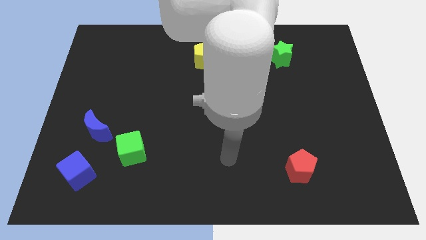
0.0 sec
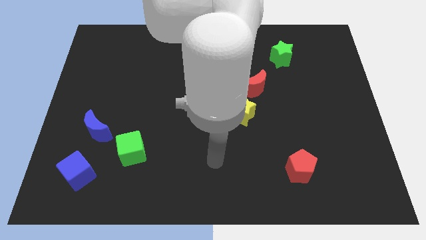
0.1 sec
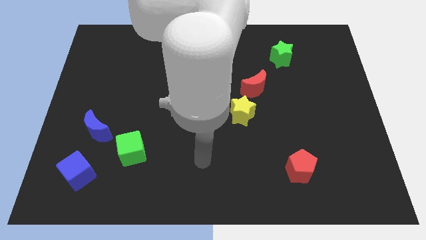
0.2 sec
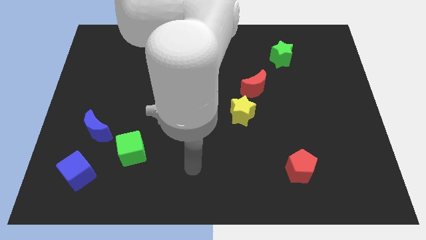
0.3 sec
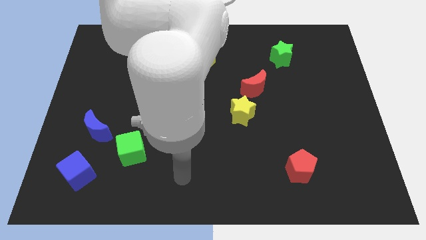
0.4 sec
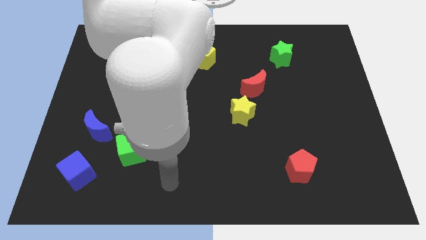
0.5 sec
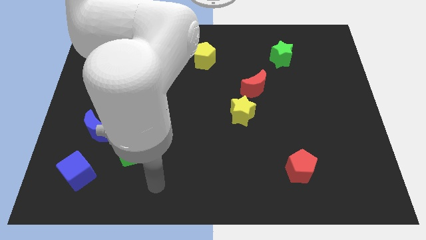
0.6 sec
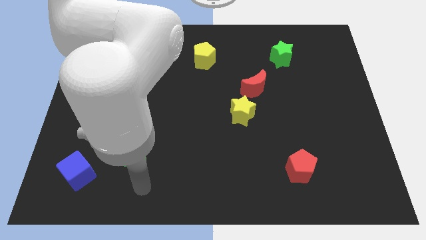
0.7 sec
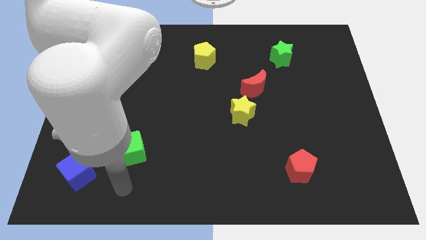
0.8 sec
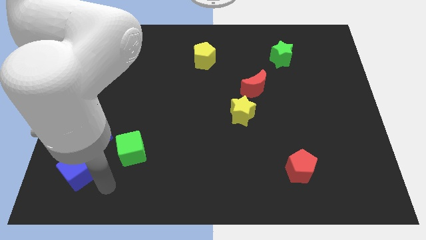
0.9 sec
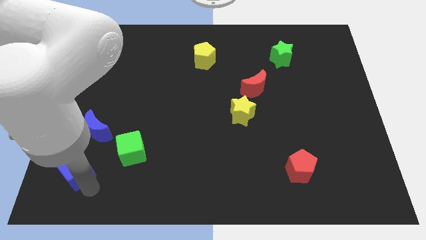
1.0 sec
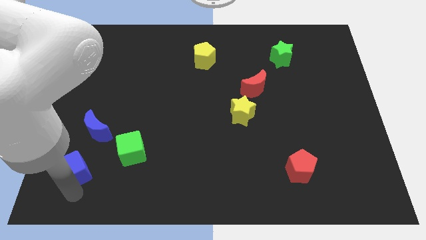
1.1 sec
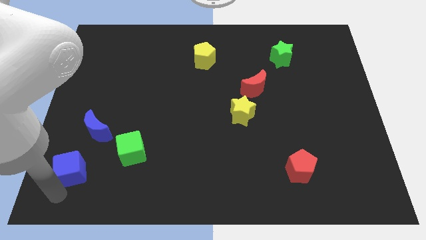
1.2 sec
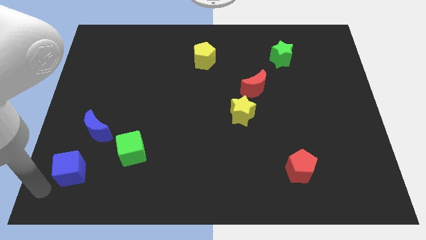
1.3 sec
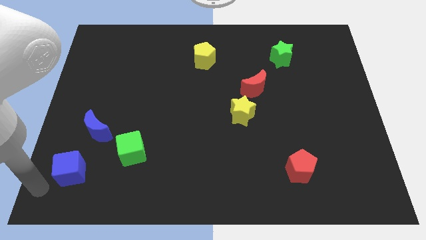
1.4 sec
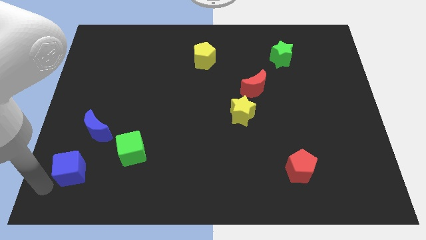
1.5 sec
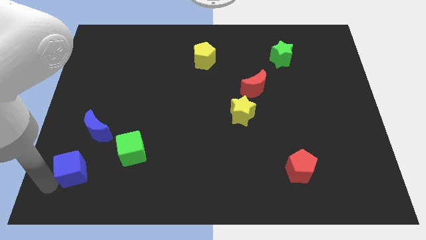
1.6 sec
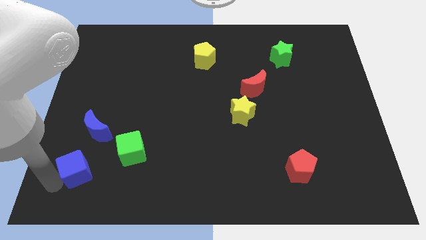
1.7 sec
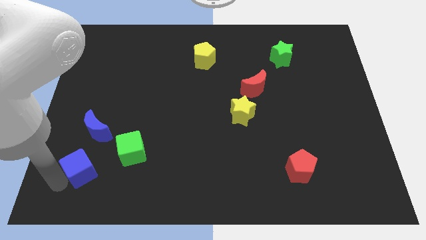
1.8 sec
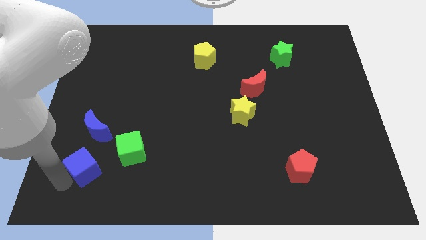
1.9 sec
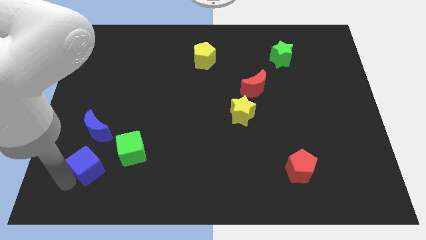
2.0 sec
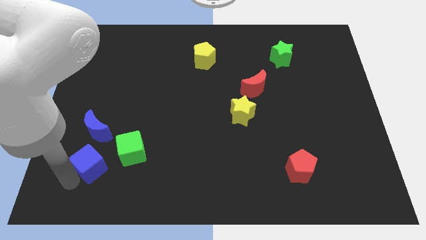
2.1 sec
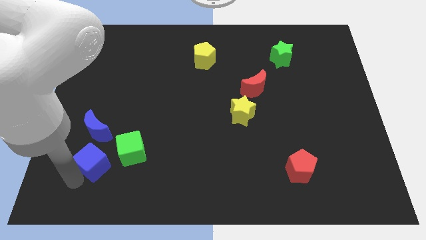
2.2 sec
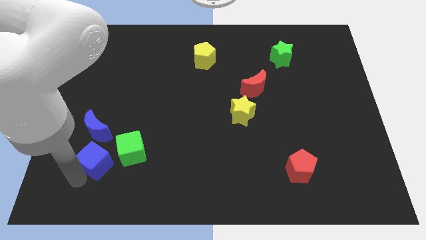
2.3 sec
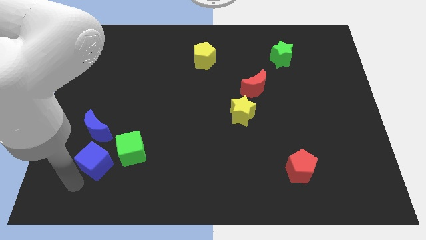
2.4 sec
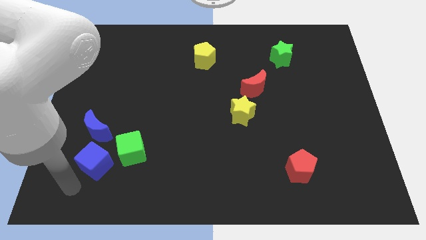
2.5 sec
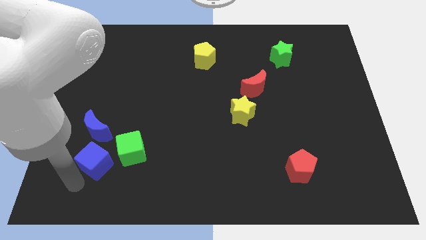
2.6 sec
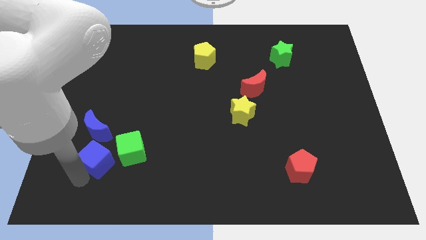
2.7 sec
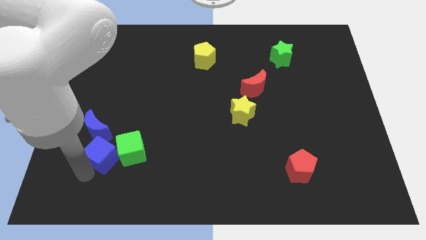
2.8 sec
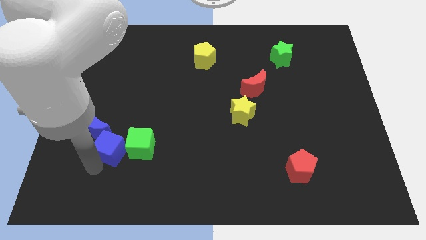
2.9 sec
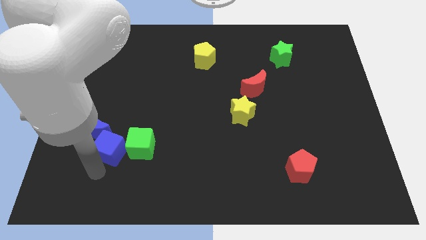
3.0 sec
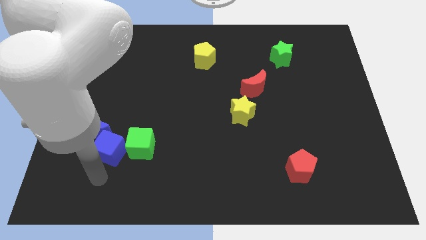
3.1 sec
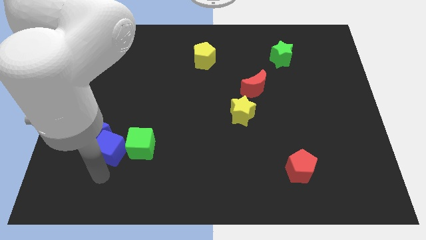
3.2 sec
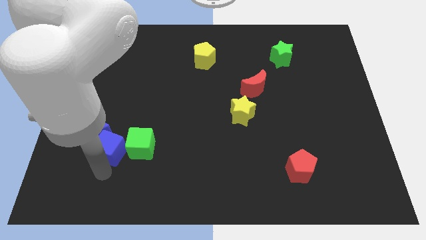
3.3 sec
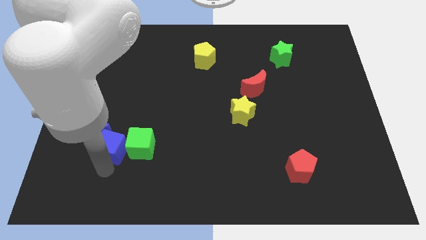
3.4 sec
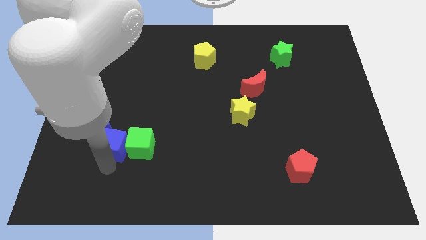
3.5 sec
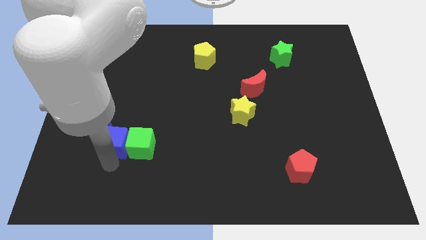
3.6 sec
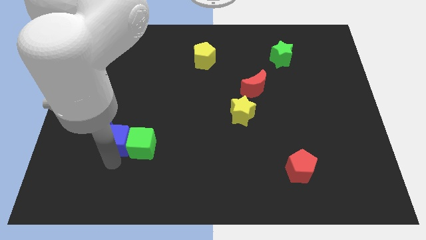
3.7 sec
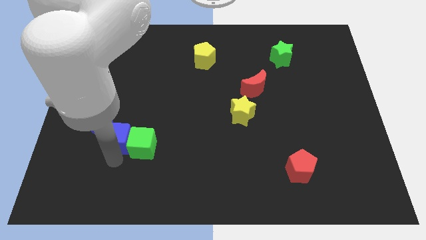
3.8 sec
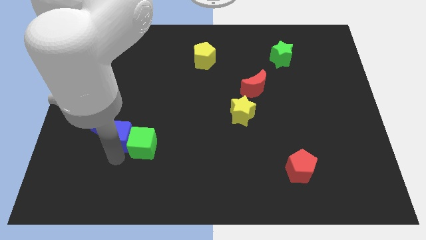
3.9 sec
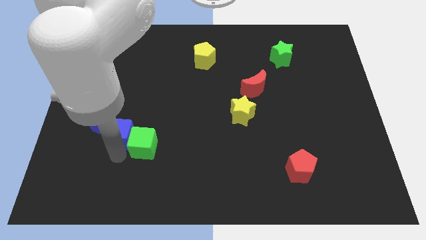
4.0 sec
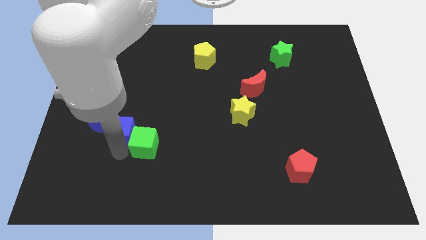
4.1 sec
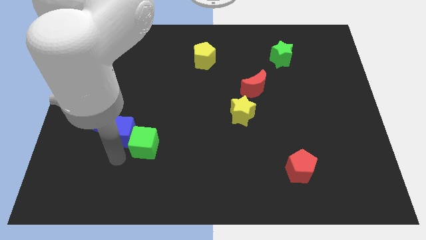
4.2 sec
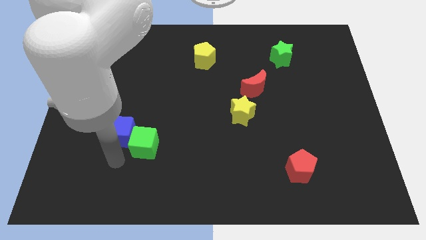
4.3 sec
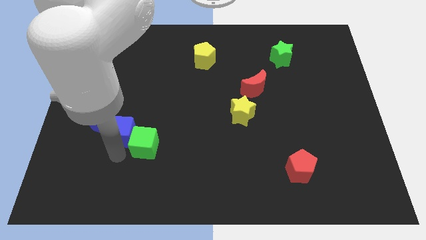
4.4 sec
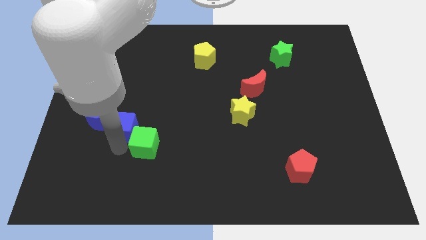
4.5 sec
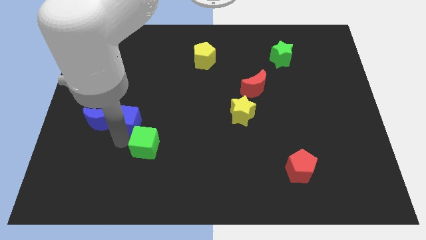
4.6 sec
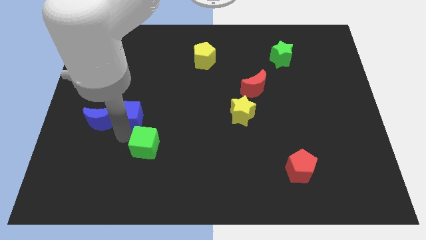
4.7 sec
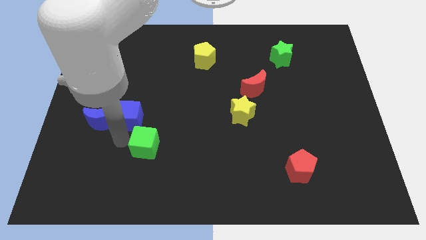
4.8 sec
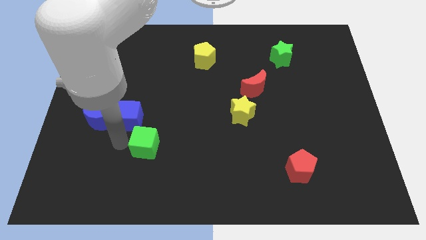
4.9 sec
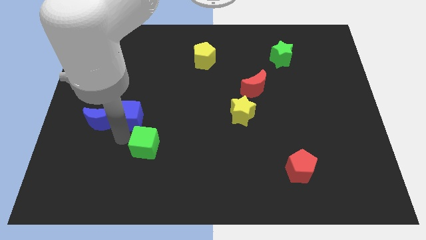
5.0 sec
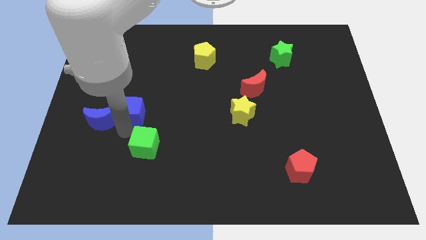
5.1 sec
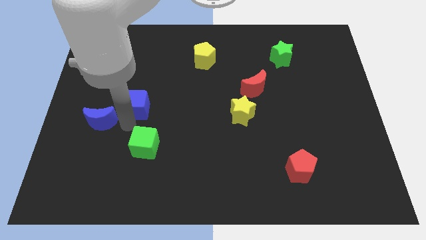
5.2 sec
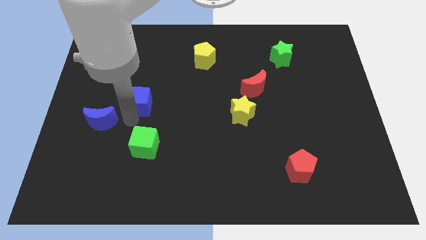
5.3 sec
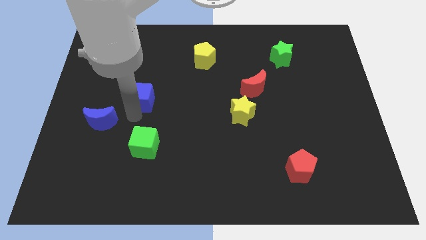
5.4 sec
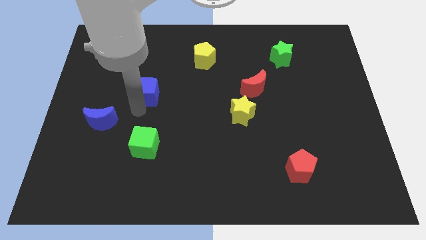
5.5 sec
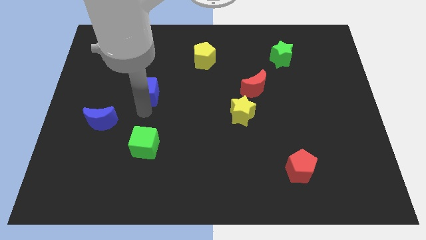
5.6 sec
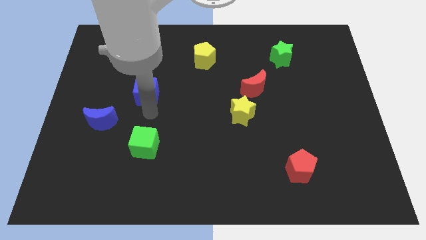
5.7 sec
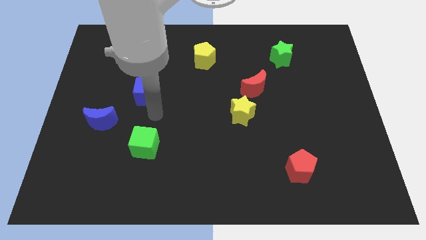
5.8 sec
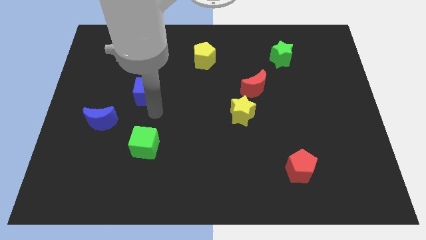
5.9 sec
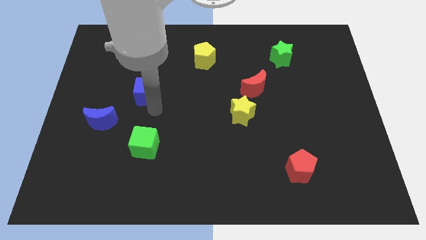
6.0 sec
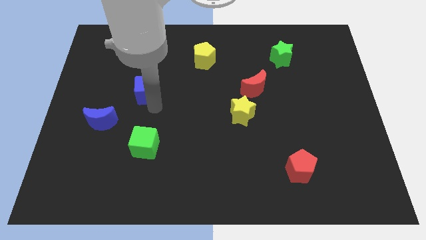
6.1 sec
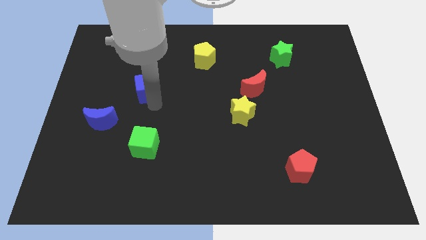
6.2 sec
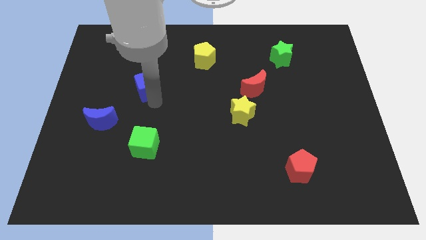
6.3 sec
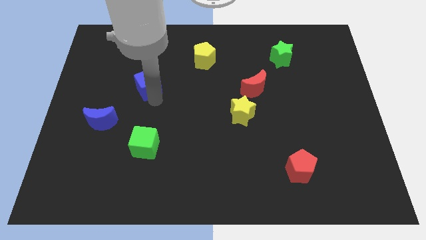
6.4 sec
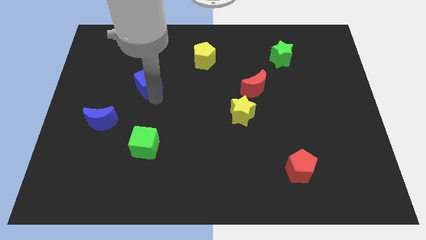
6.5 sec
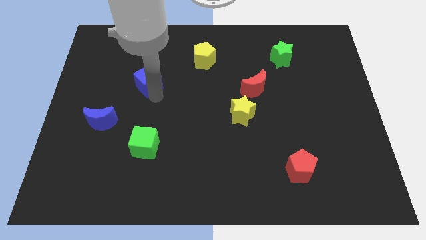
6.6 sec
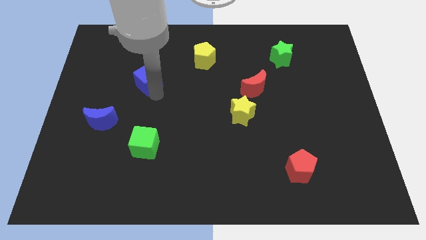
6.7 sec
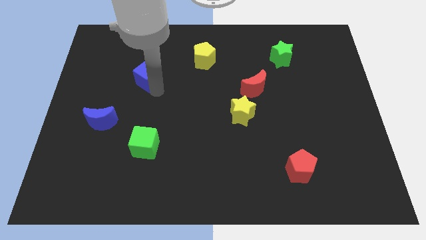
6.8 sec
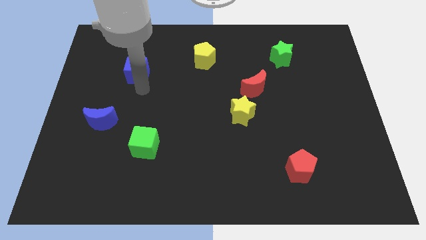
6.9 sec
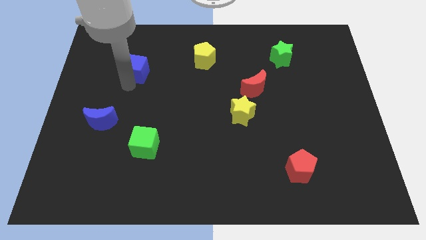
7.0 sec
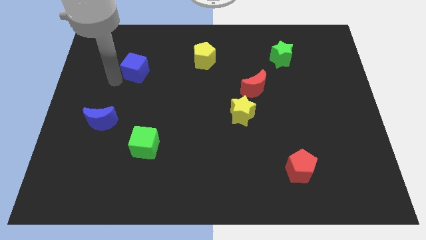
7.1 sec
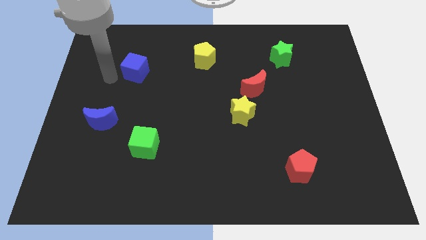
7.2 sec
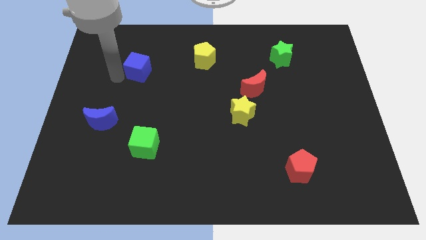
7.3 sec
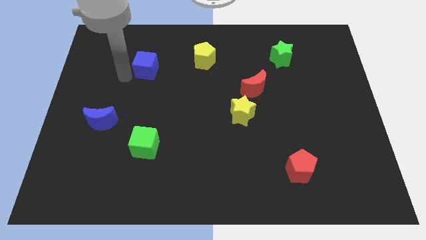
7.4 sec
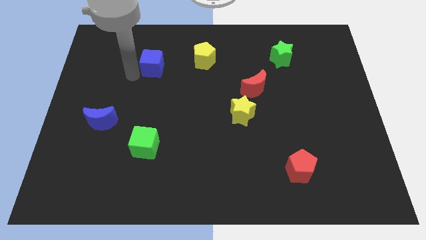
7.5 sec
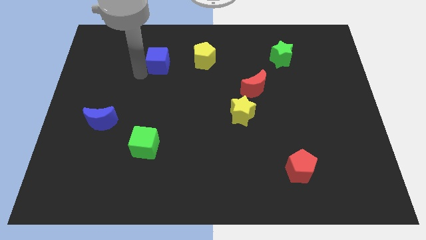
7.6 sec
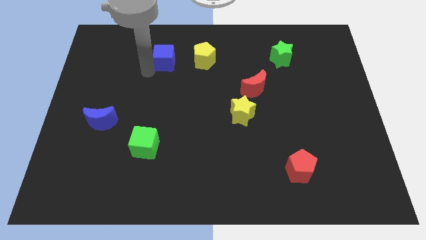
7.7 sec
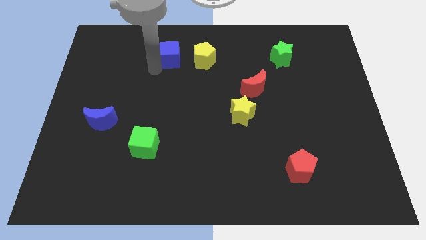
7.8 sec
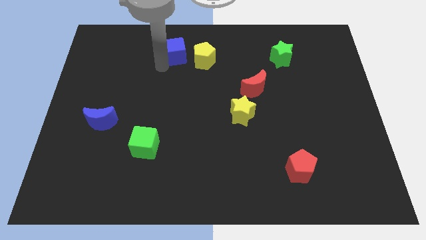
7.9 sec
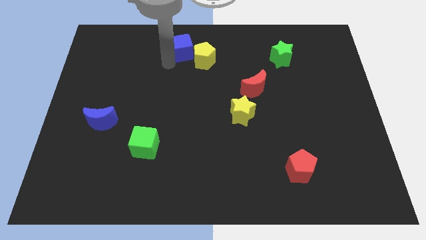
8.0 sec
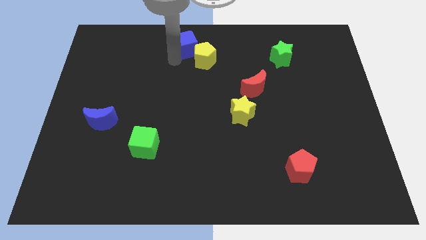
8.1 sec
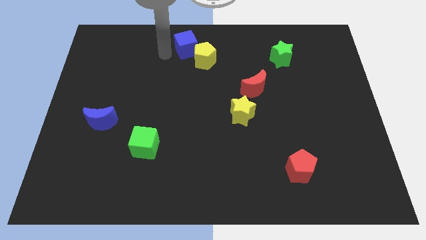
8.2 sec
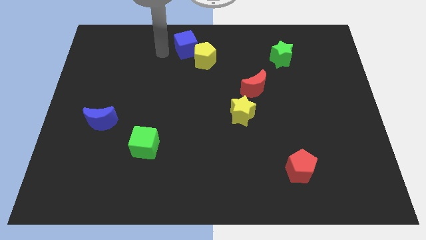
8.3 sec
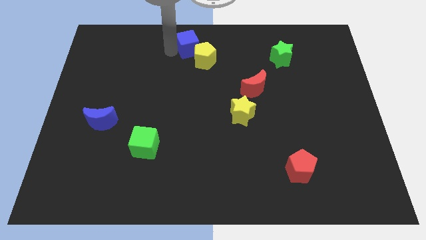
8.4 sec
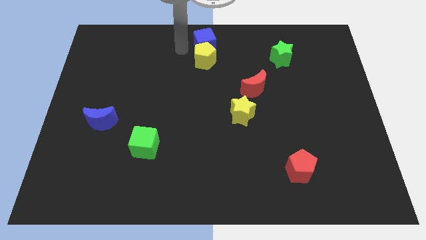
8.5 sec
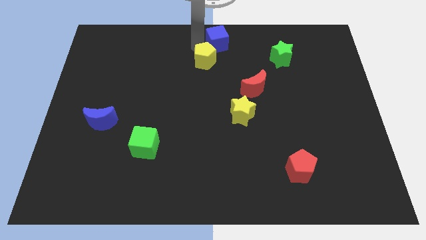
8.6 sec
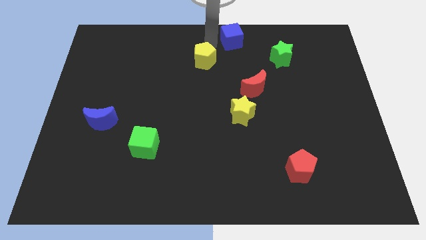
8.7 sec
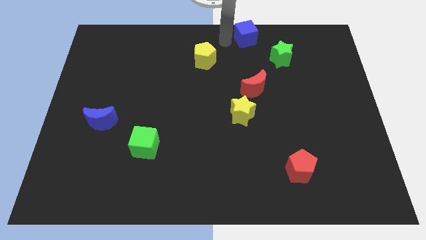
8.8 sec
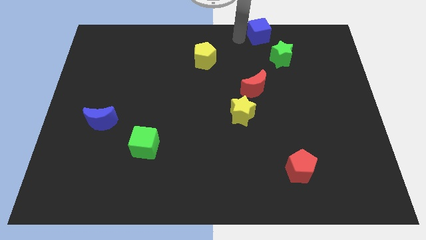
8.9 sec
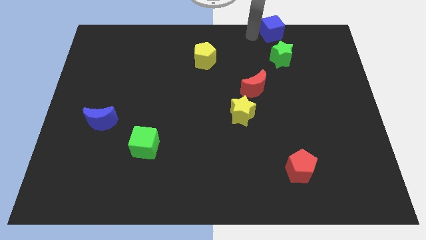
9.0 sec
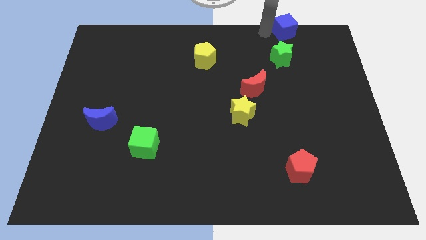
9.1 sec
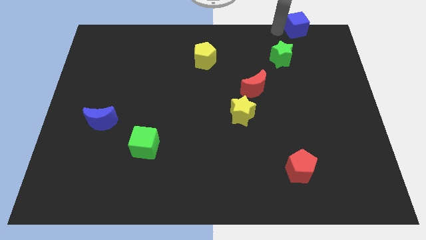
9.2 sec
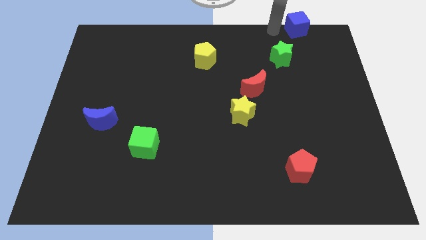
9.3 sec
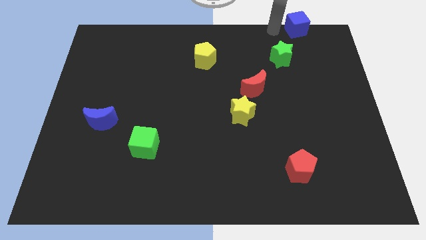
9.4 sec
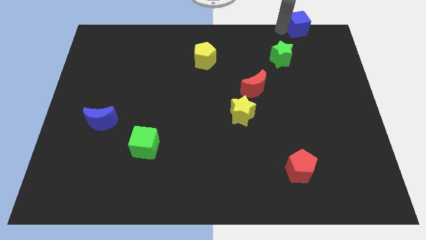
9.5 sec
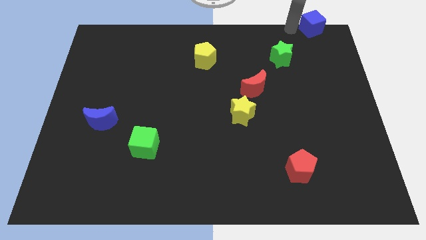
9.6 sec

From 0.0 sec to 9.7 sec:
move the blue cube to the top right
